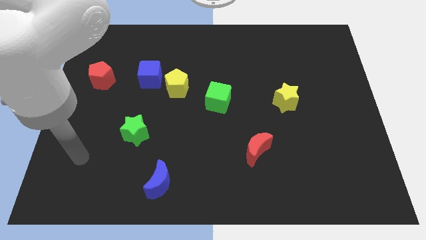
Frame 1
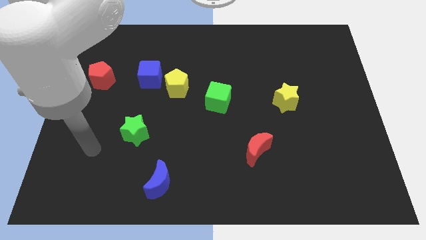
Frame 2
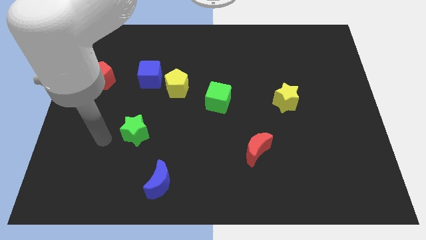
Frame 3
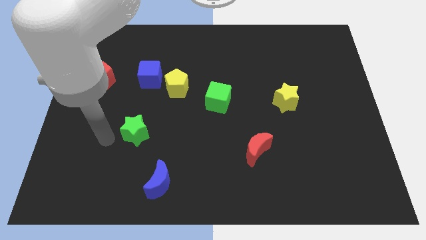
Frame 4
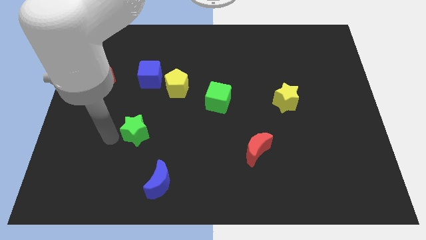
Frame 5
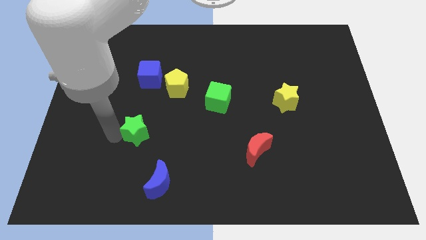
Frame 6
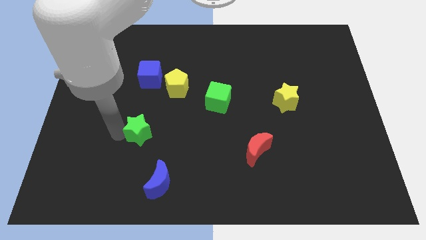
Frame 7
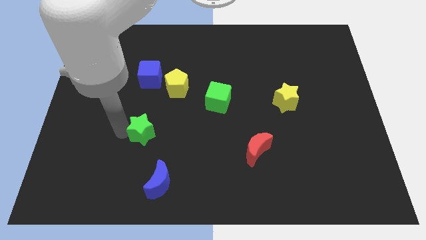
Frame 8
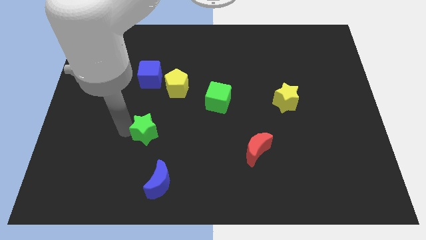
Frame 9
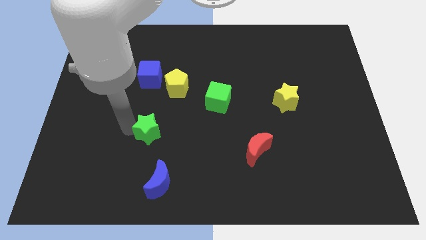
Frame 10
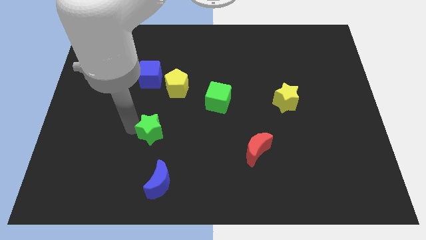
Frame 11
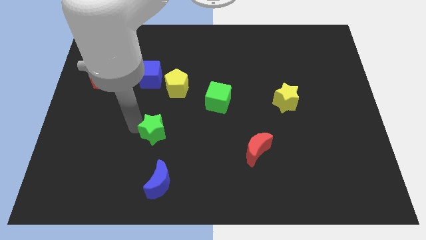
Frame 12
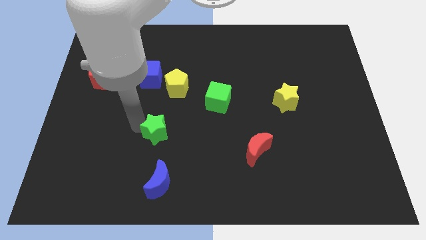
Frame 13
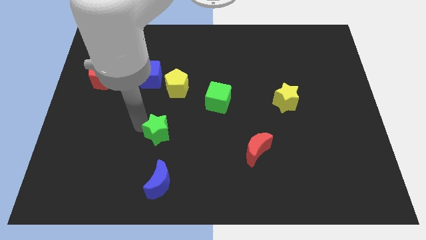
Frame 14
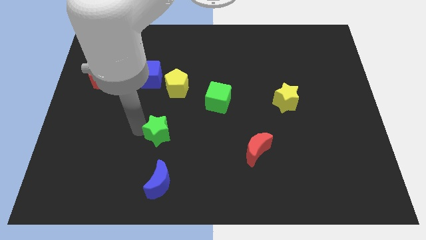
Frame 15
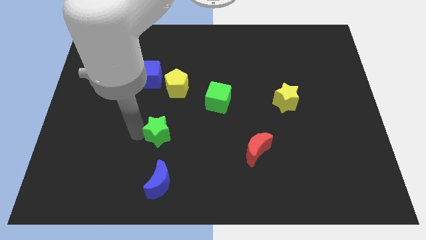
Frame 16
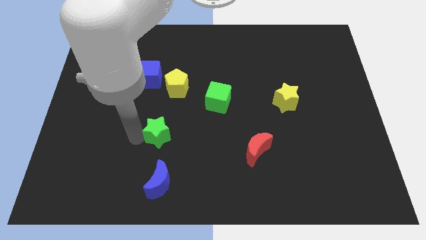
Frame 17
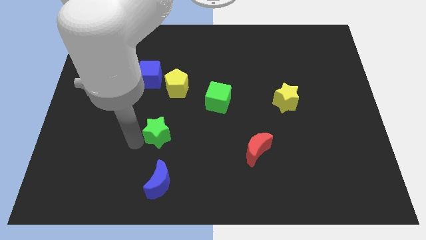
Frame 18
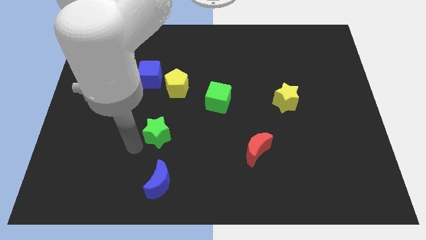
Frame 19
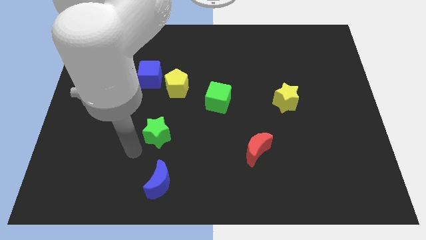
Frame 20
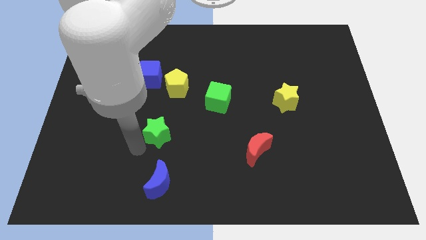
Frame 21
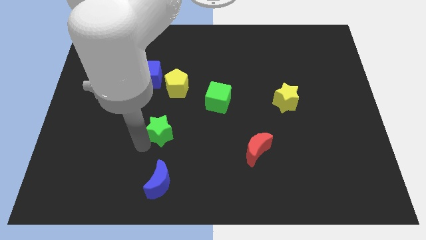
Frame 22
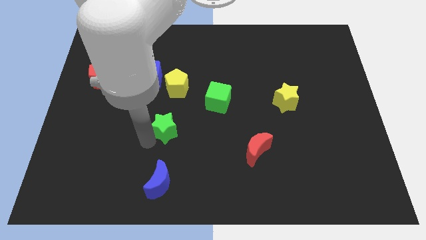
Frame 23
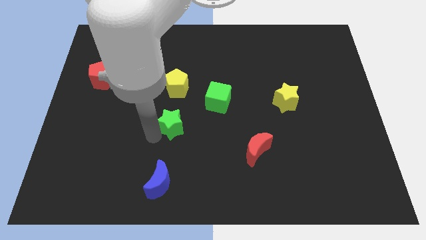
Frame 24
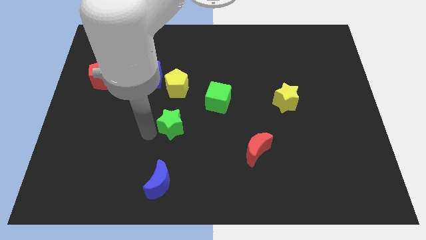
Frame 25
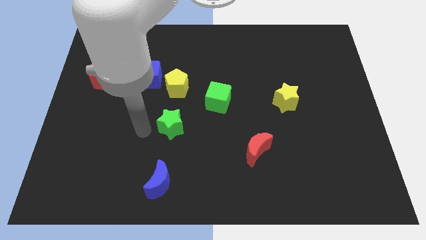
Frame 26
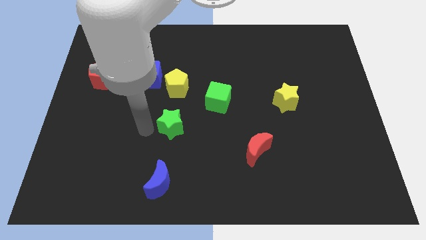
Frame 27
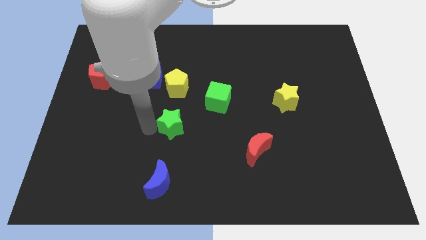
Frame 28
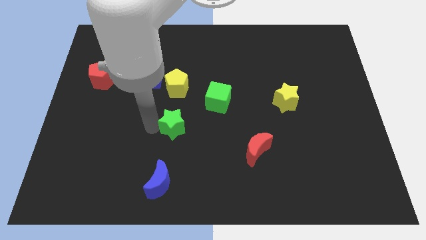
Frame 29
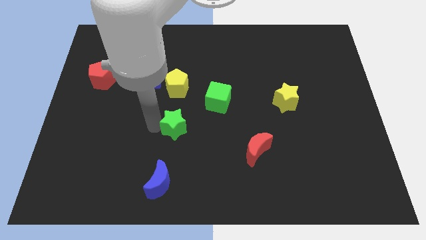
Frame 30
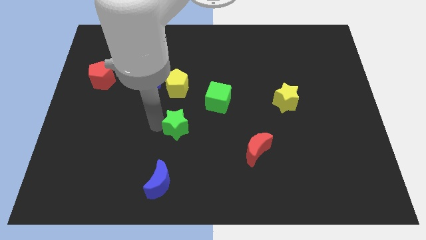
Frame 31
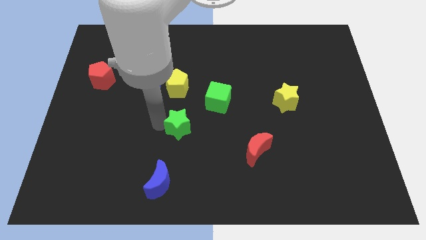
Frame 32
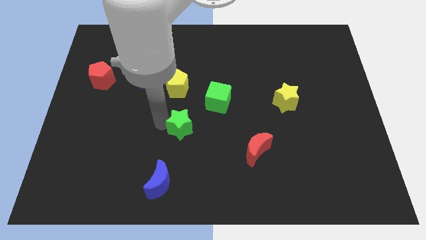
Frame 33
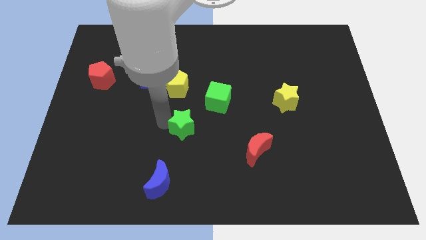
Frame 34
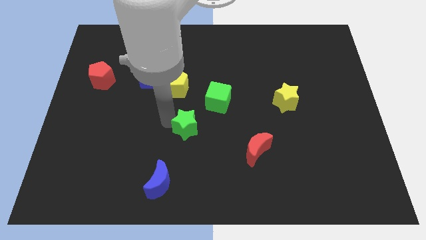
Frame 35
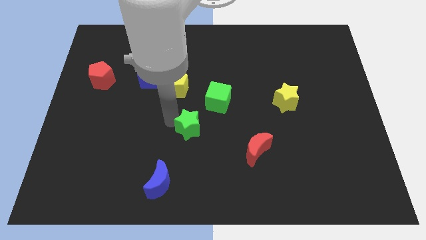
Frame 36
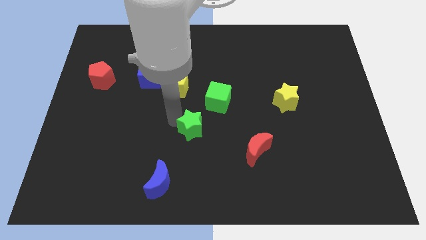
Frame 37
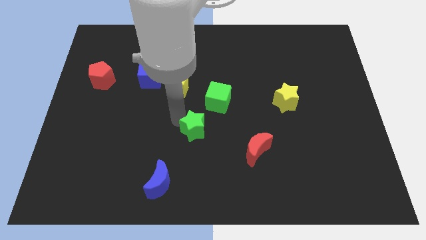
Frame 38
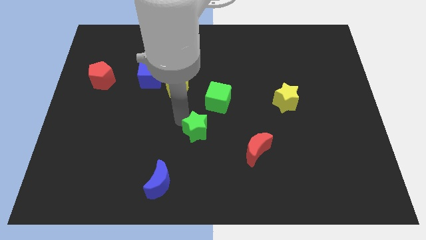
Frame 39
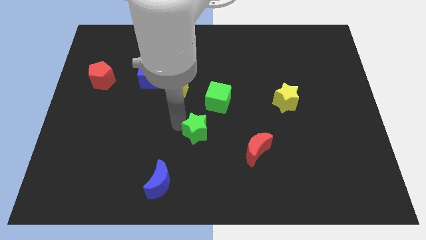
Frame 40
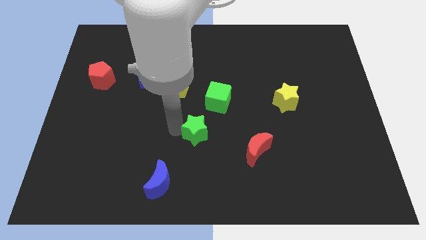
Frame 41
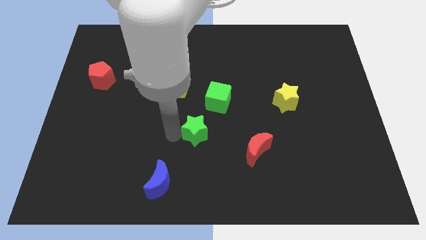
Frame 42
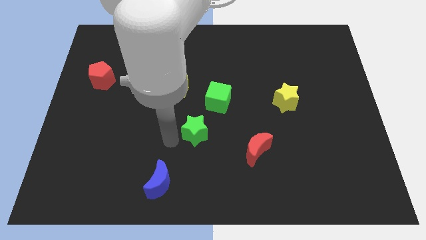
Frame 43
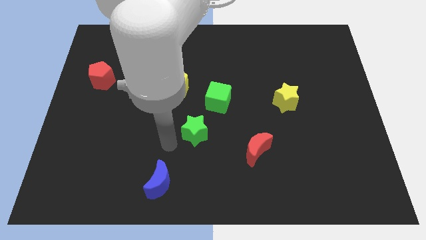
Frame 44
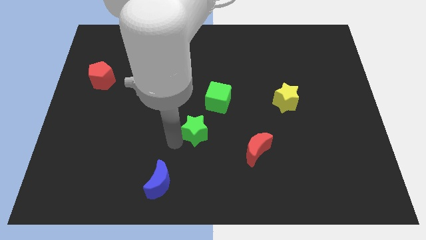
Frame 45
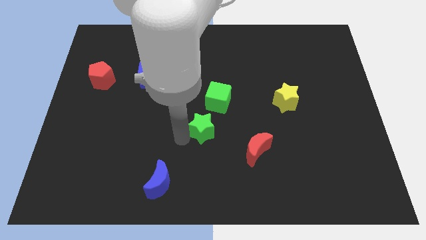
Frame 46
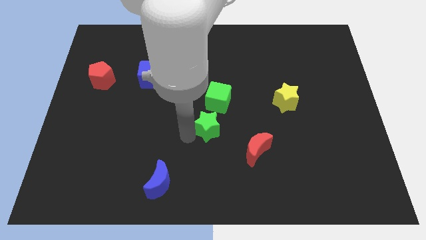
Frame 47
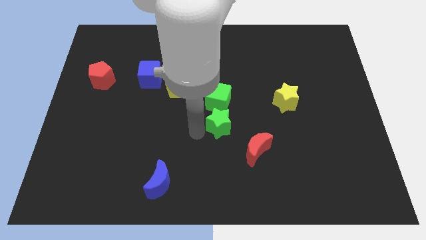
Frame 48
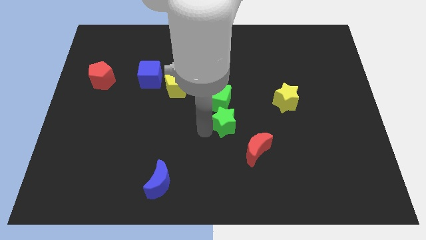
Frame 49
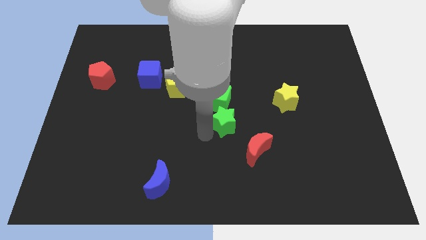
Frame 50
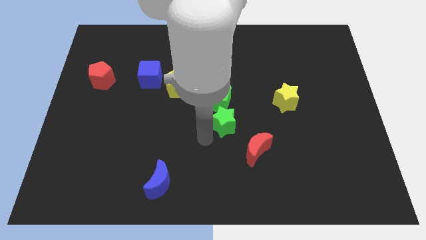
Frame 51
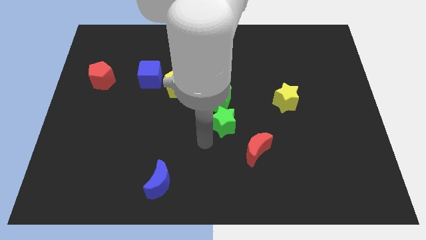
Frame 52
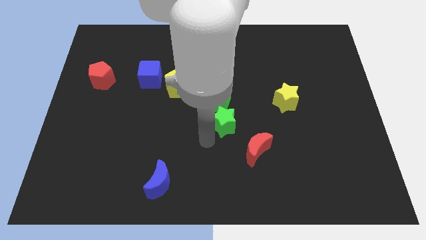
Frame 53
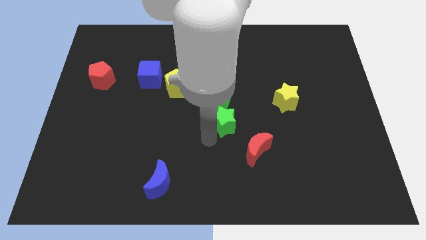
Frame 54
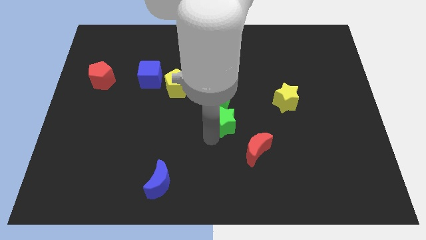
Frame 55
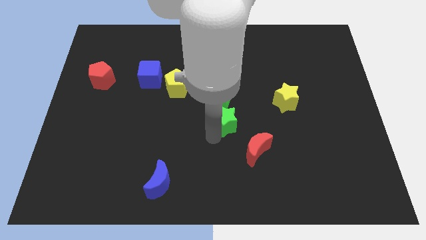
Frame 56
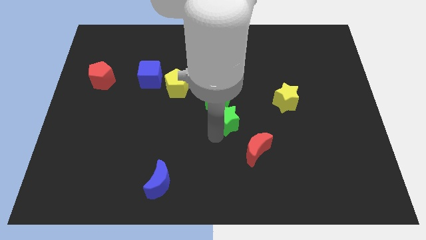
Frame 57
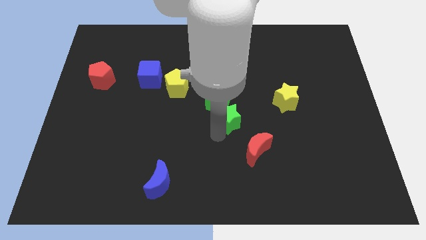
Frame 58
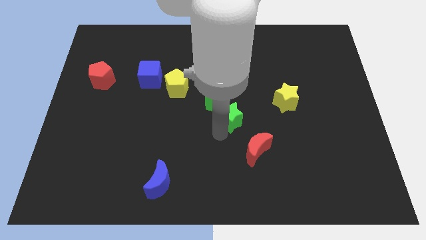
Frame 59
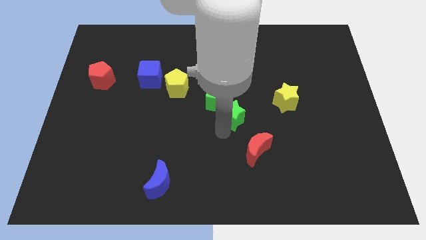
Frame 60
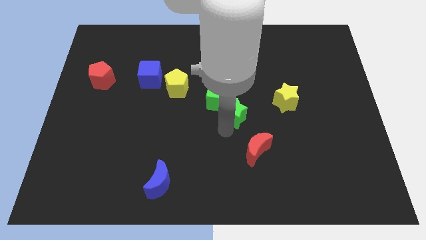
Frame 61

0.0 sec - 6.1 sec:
push the green star to the left side of the yellow star

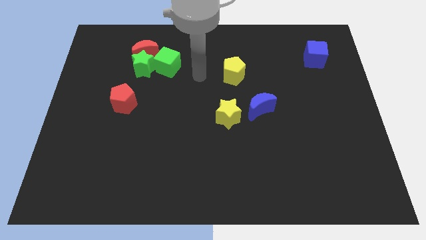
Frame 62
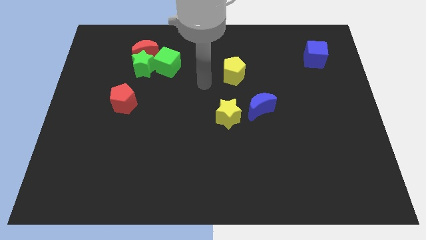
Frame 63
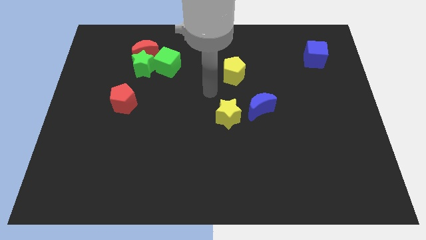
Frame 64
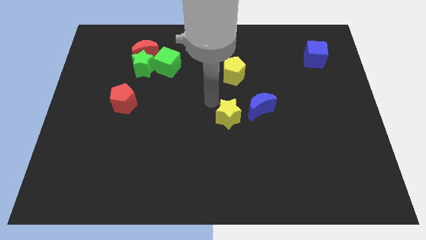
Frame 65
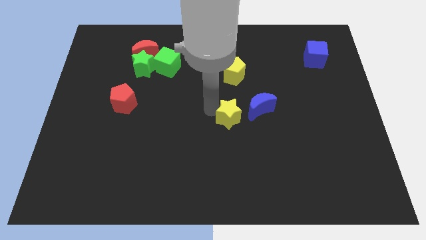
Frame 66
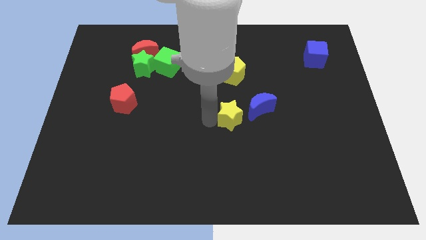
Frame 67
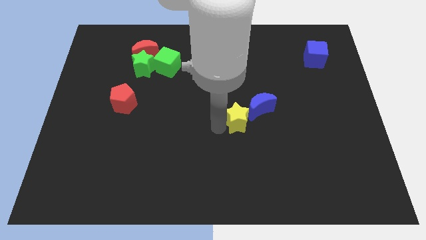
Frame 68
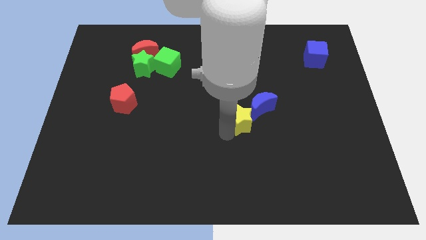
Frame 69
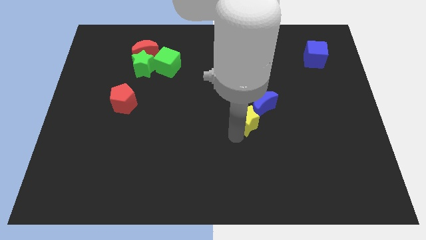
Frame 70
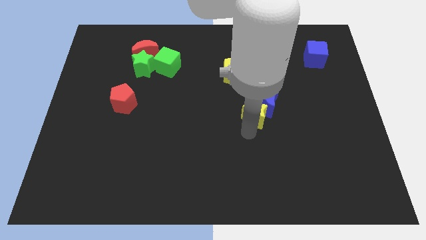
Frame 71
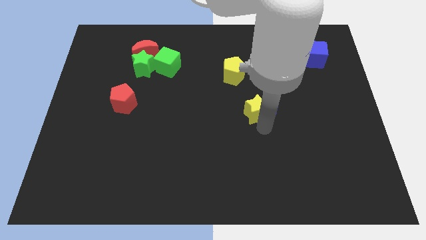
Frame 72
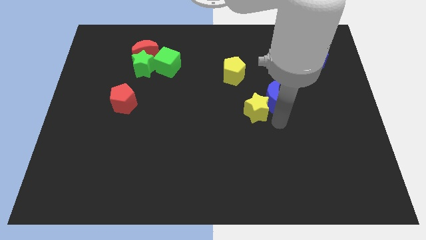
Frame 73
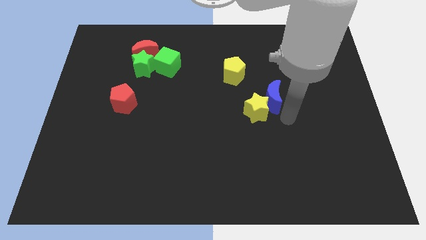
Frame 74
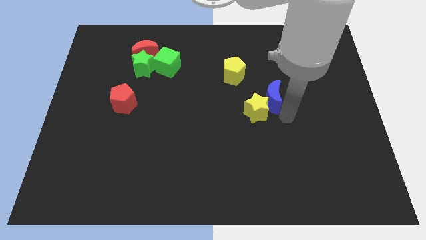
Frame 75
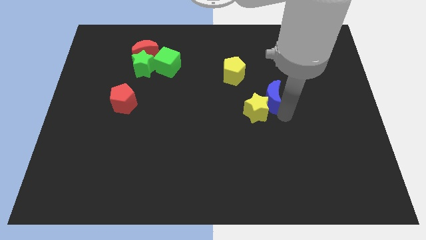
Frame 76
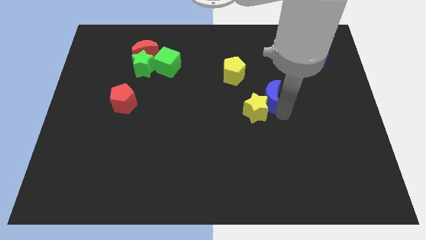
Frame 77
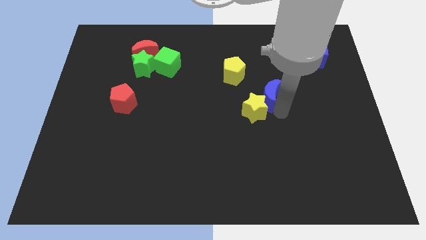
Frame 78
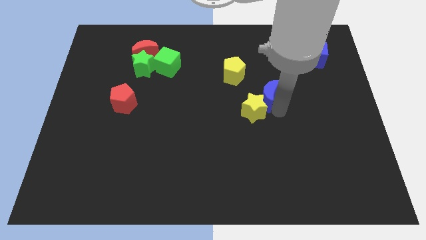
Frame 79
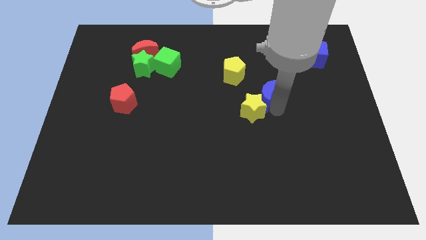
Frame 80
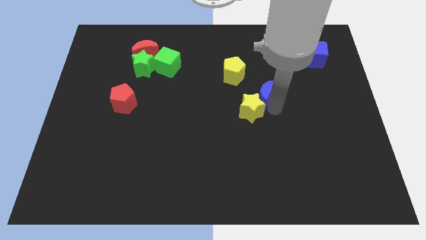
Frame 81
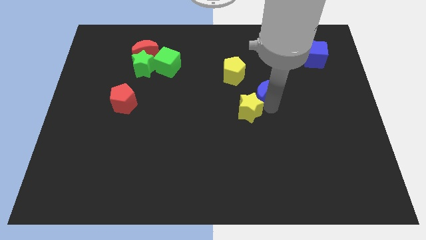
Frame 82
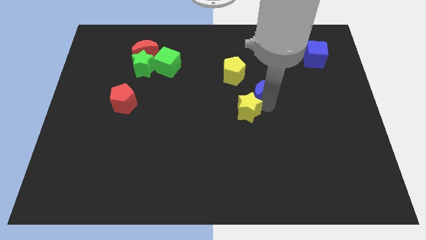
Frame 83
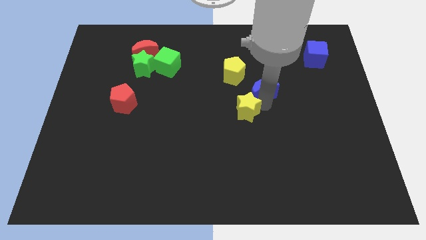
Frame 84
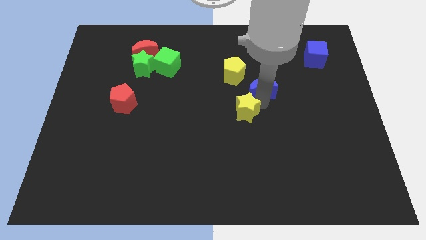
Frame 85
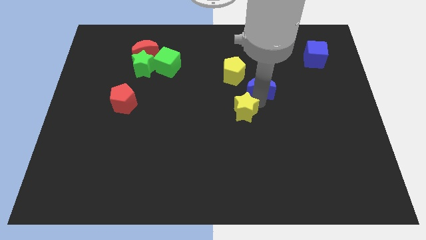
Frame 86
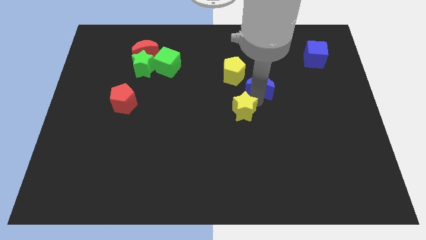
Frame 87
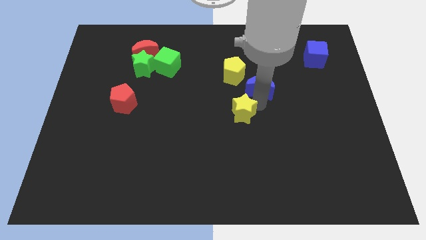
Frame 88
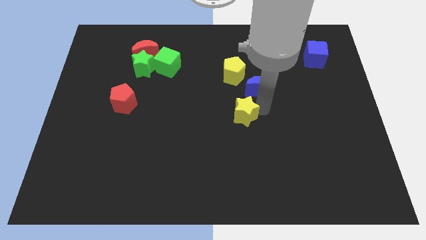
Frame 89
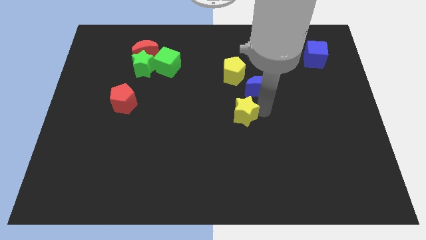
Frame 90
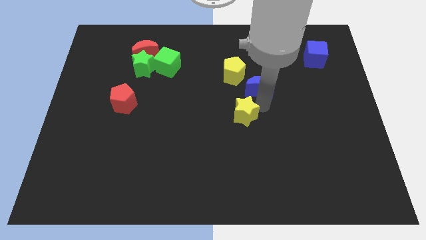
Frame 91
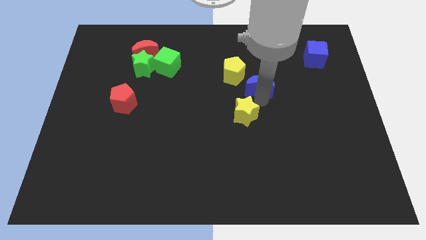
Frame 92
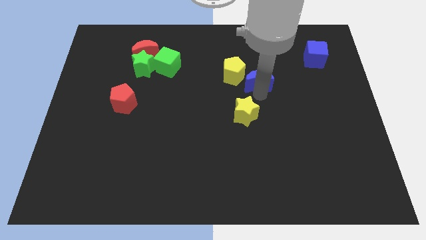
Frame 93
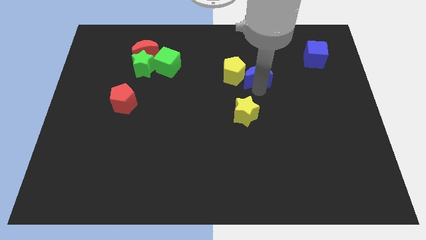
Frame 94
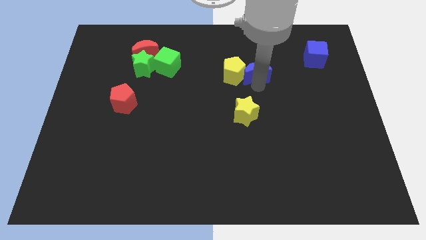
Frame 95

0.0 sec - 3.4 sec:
push the blue moon to the top right of the yellow pentagon
